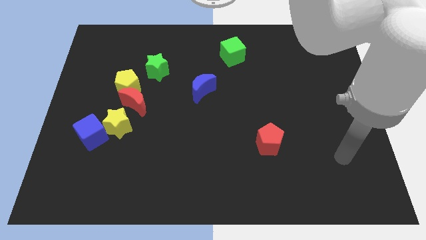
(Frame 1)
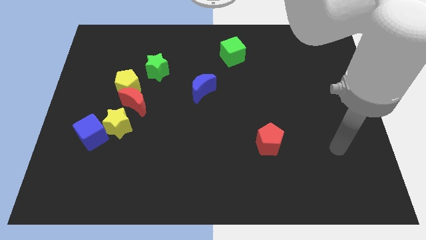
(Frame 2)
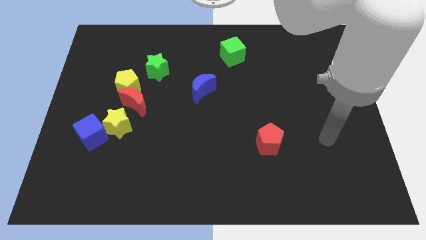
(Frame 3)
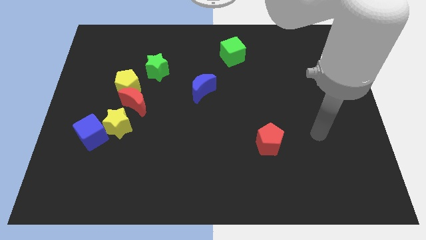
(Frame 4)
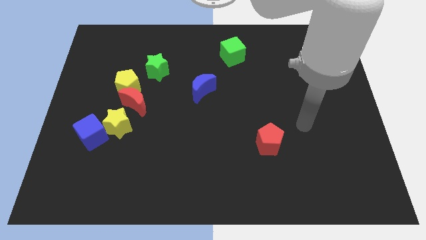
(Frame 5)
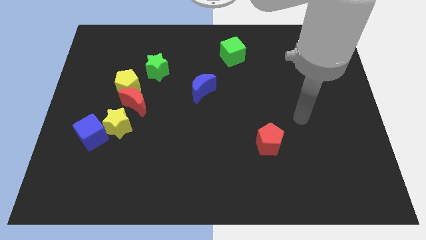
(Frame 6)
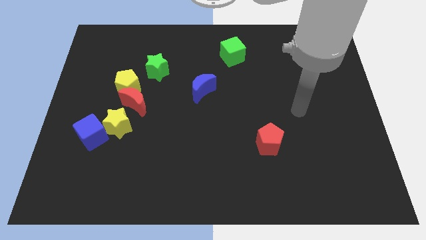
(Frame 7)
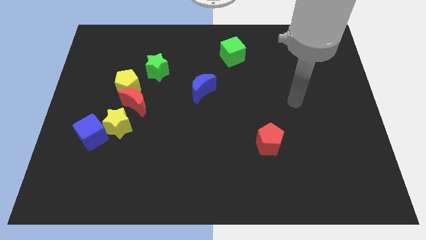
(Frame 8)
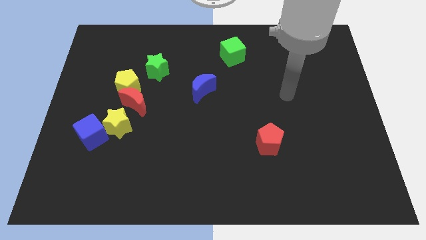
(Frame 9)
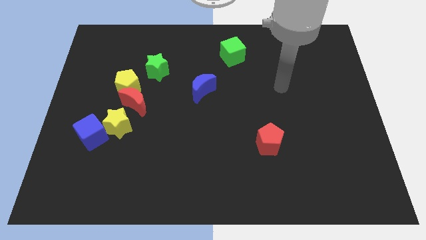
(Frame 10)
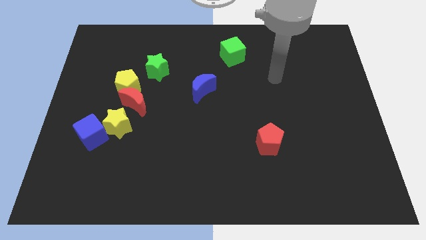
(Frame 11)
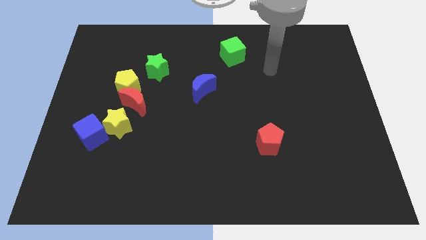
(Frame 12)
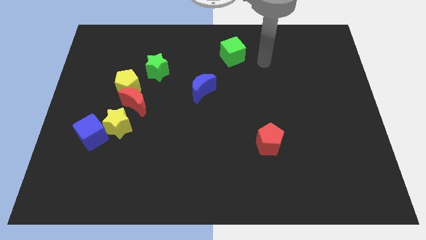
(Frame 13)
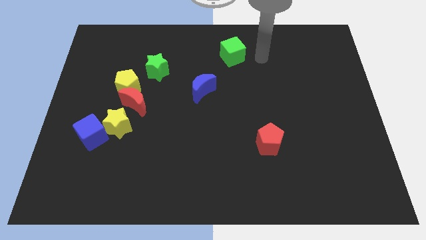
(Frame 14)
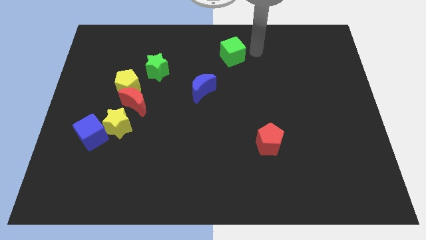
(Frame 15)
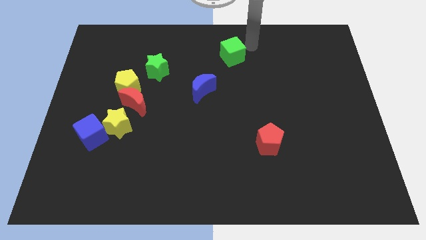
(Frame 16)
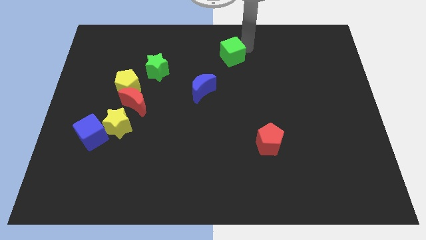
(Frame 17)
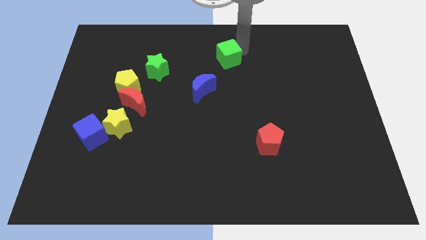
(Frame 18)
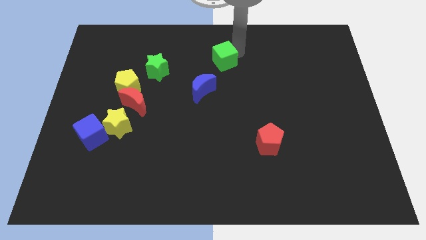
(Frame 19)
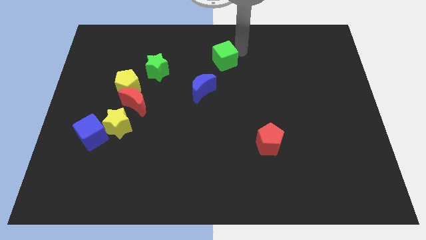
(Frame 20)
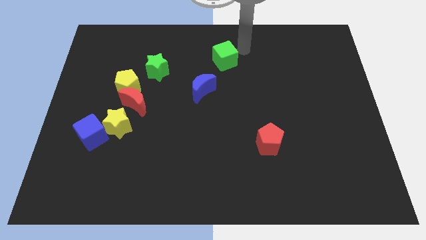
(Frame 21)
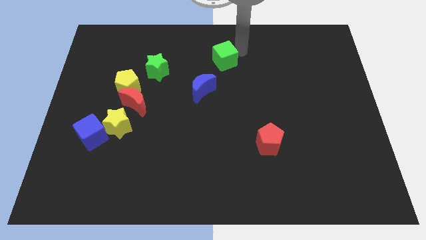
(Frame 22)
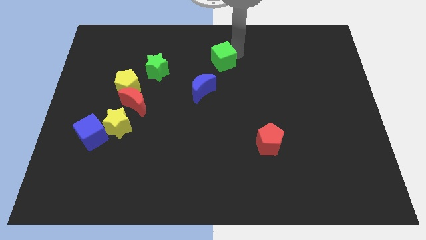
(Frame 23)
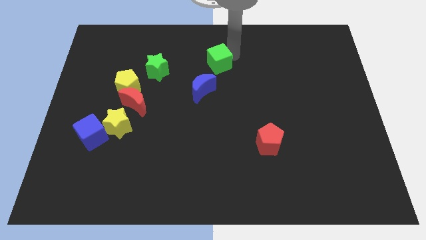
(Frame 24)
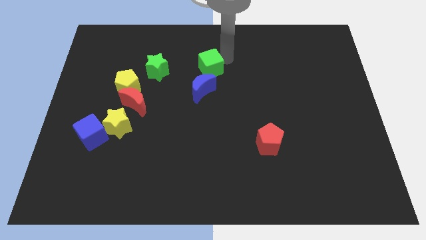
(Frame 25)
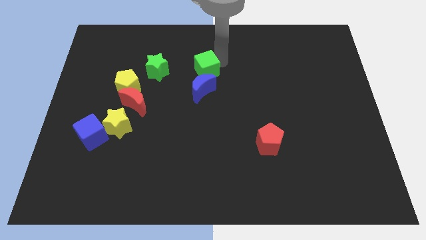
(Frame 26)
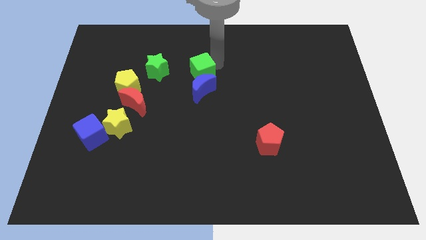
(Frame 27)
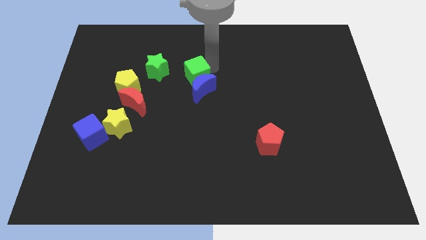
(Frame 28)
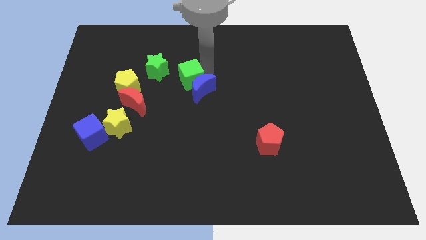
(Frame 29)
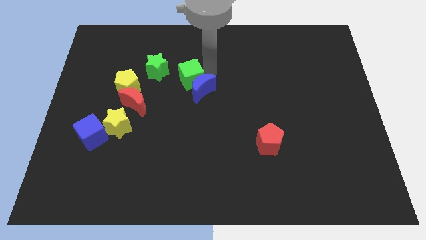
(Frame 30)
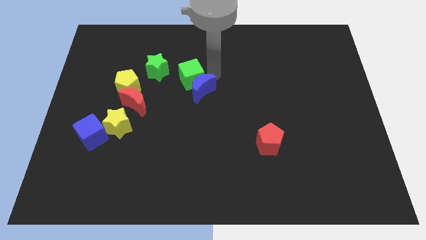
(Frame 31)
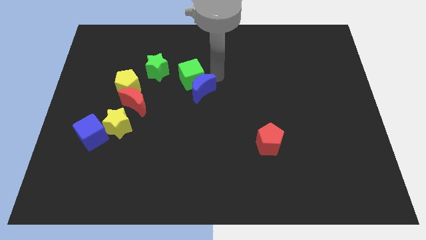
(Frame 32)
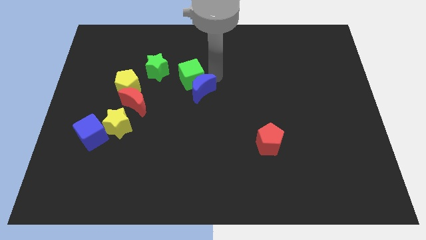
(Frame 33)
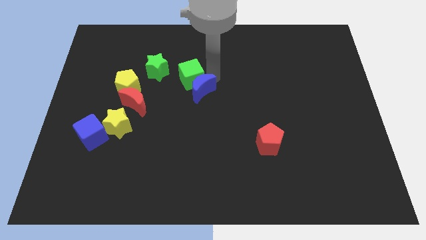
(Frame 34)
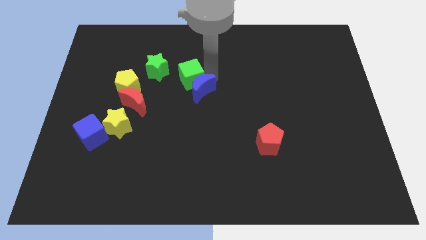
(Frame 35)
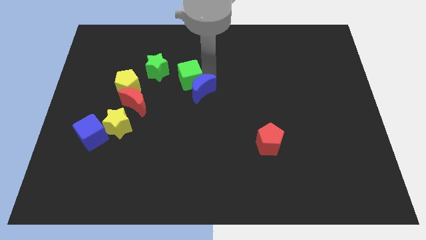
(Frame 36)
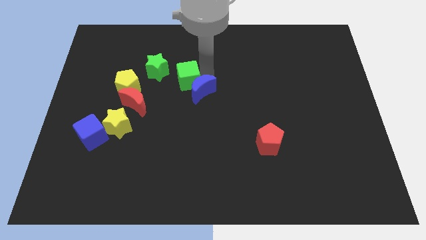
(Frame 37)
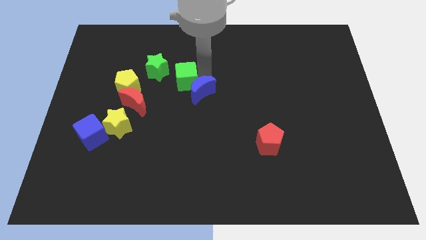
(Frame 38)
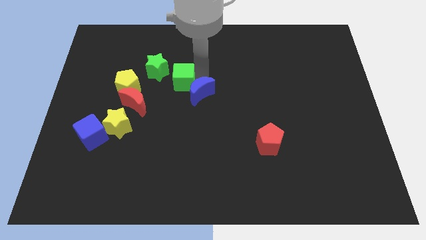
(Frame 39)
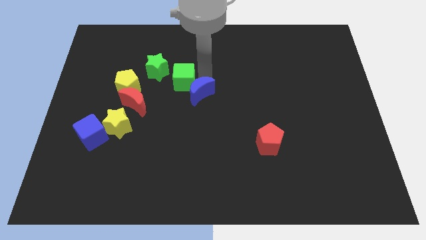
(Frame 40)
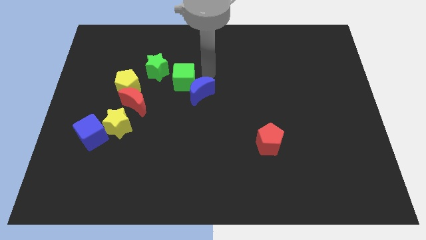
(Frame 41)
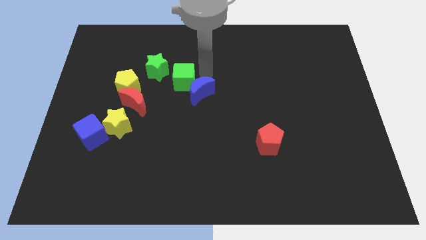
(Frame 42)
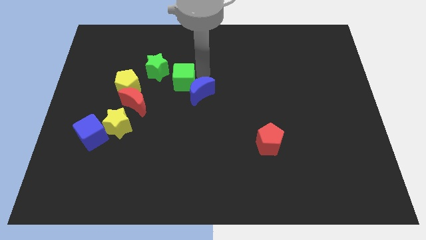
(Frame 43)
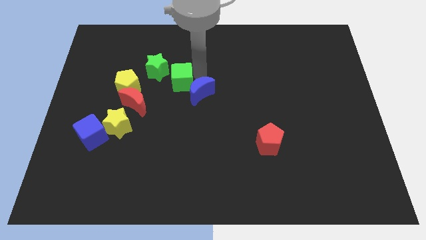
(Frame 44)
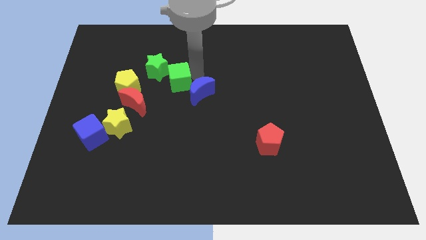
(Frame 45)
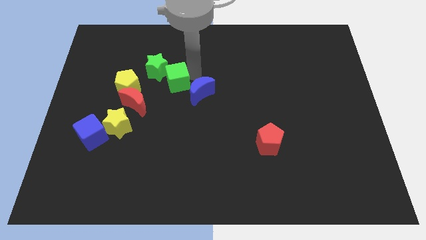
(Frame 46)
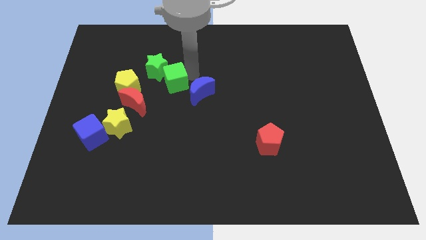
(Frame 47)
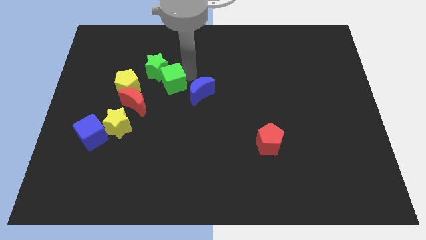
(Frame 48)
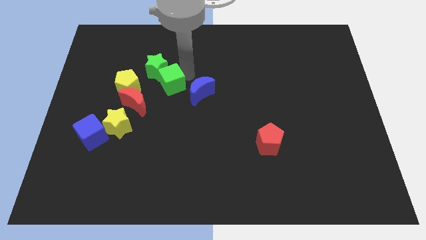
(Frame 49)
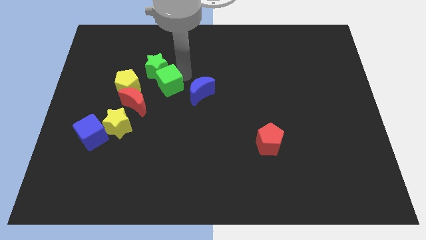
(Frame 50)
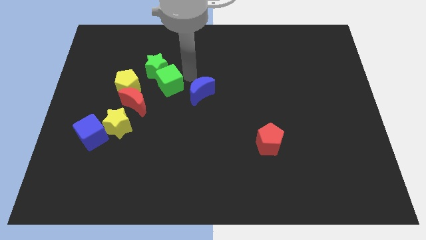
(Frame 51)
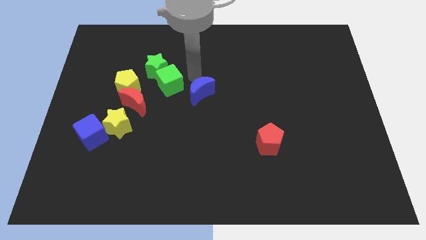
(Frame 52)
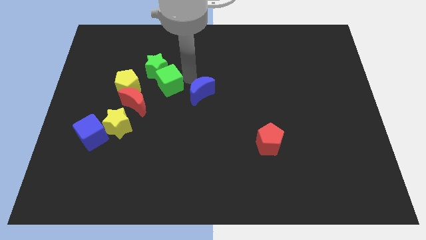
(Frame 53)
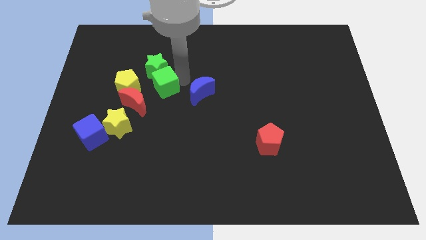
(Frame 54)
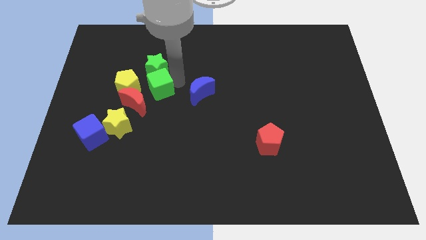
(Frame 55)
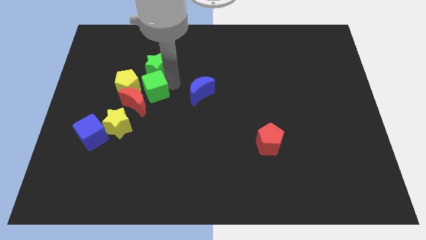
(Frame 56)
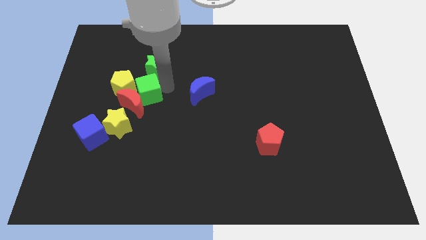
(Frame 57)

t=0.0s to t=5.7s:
move the green cube next to the yellow pentagon

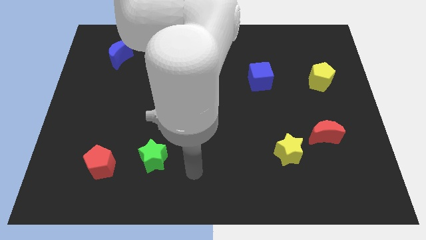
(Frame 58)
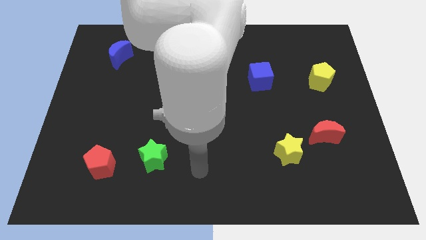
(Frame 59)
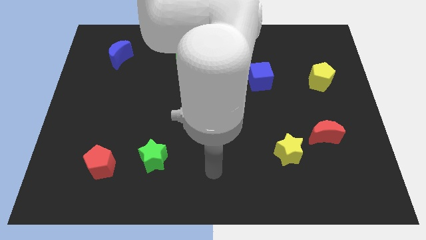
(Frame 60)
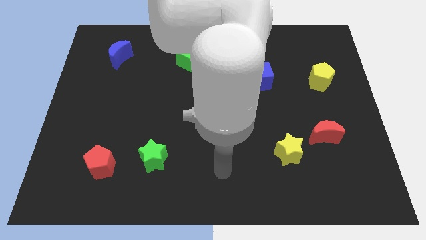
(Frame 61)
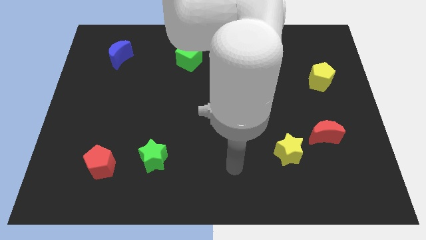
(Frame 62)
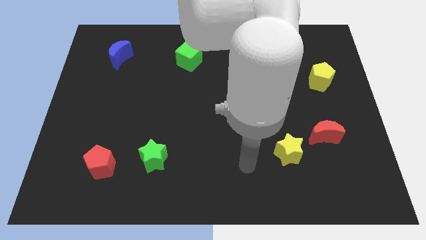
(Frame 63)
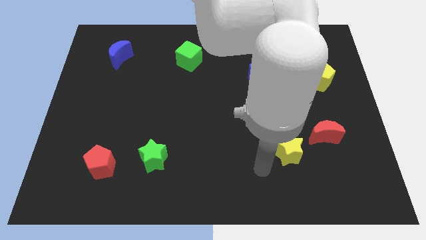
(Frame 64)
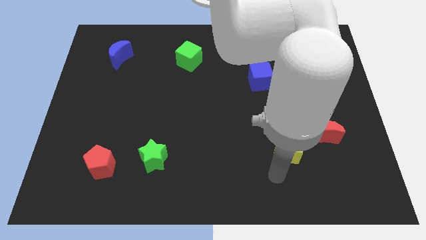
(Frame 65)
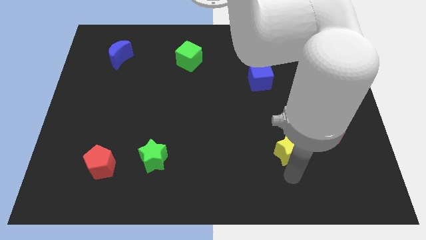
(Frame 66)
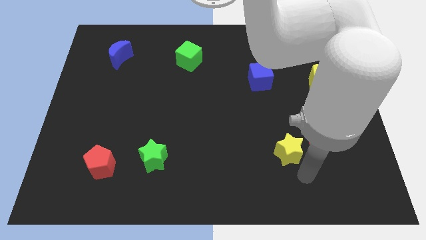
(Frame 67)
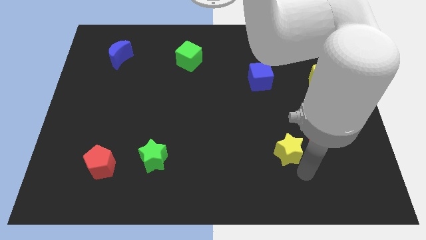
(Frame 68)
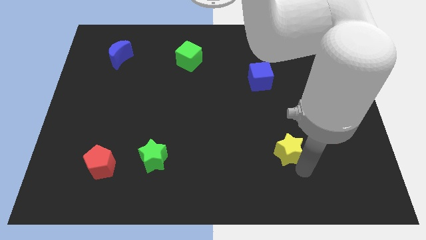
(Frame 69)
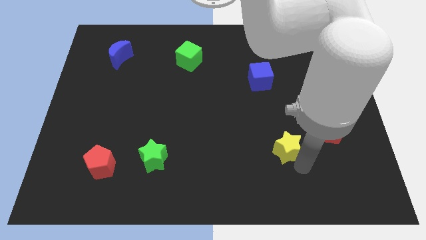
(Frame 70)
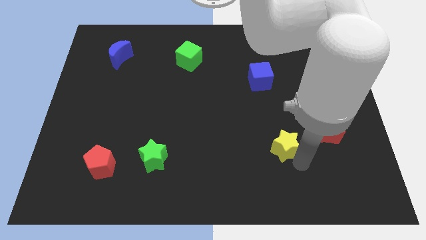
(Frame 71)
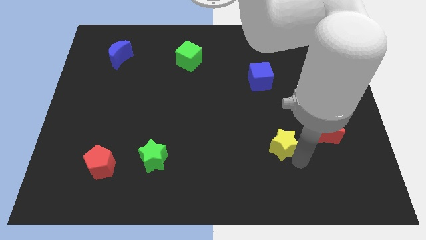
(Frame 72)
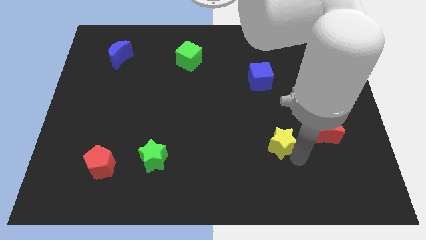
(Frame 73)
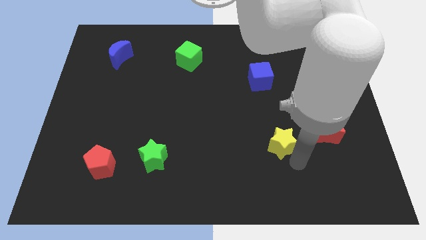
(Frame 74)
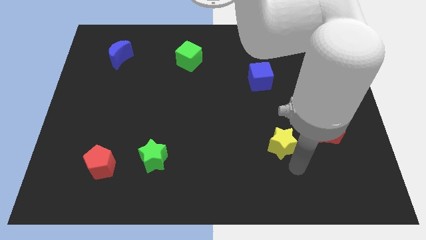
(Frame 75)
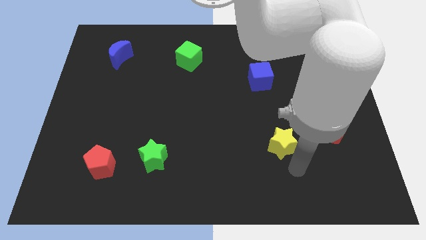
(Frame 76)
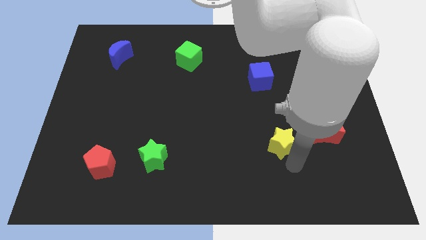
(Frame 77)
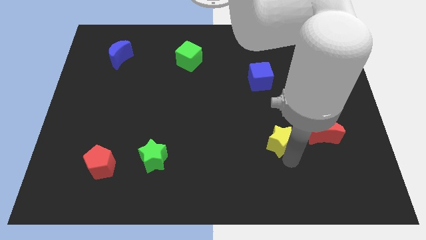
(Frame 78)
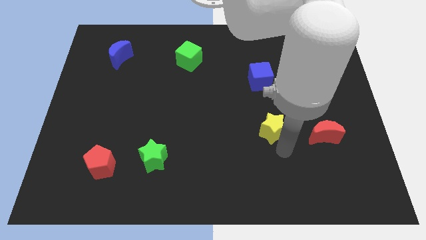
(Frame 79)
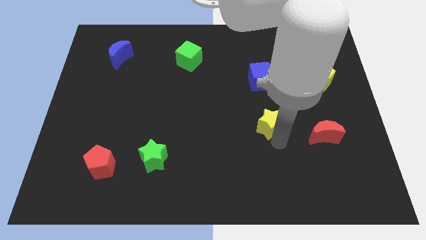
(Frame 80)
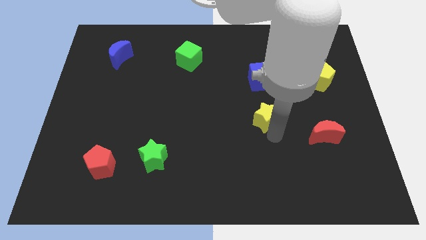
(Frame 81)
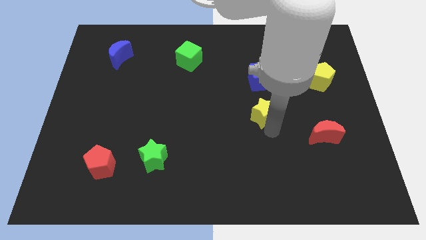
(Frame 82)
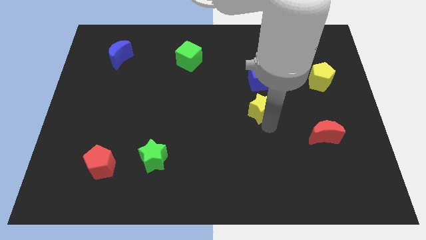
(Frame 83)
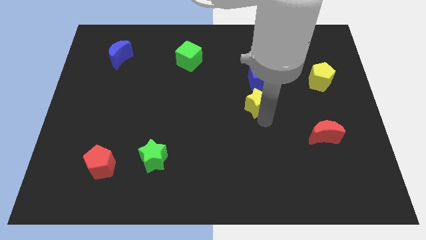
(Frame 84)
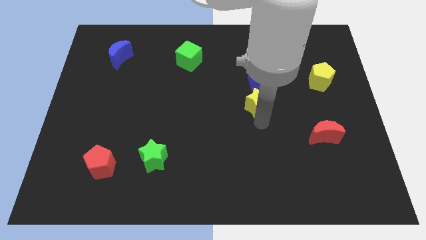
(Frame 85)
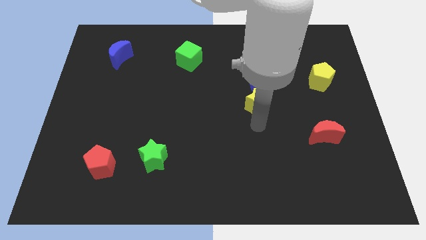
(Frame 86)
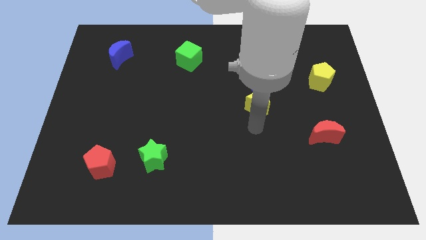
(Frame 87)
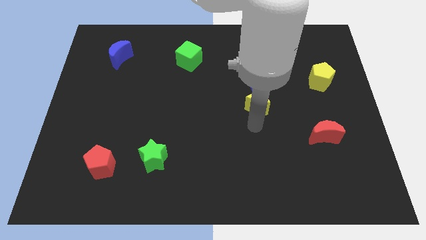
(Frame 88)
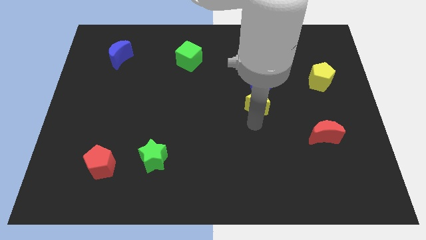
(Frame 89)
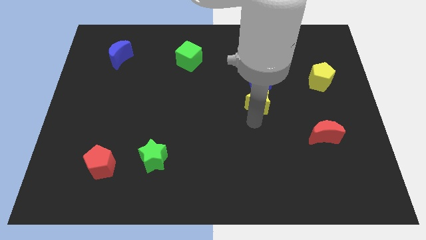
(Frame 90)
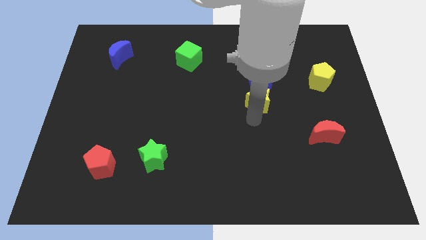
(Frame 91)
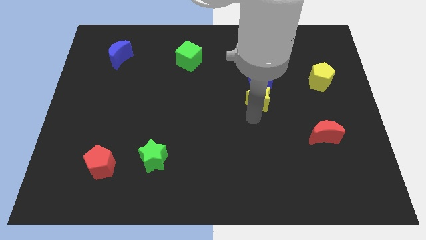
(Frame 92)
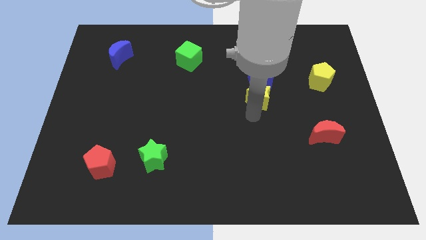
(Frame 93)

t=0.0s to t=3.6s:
put the yellow star close to the blue cube
